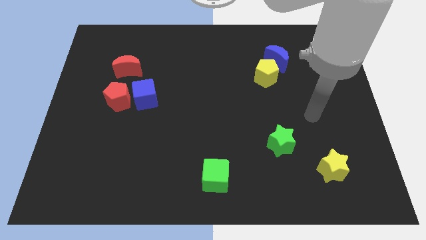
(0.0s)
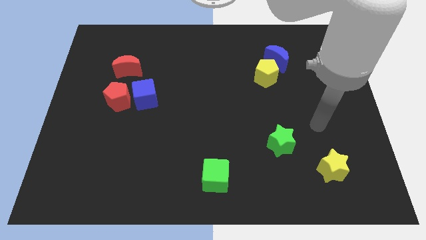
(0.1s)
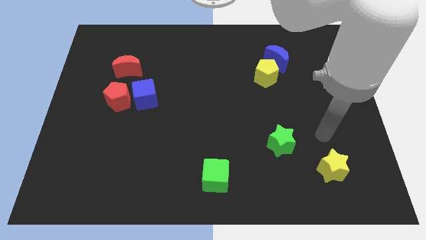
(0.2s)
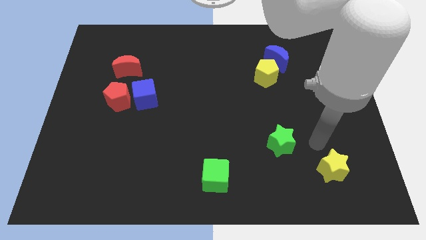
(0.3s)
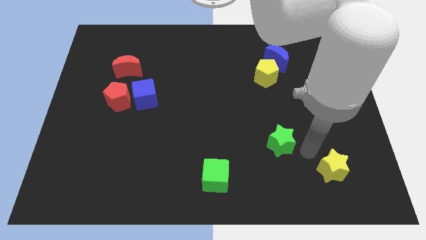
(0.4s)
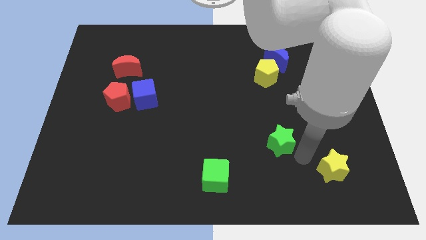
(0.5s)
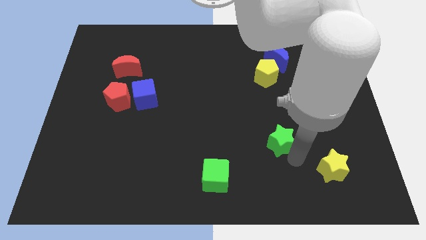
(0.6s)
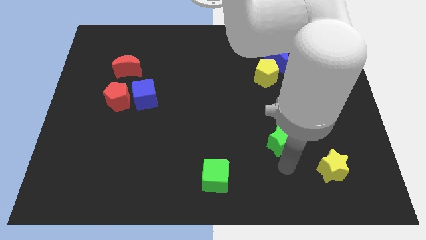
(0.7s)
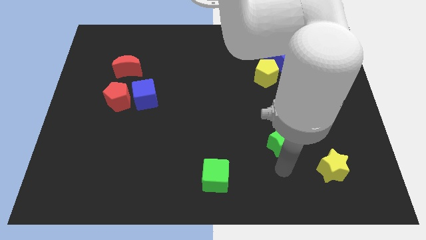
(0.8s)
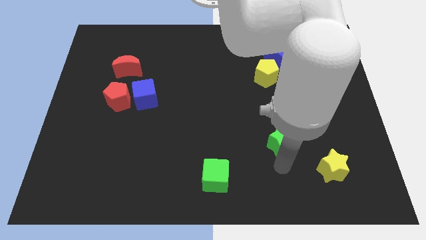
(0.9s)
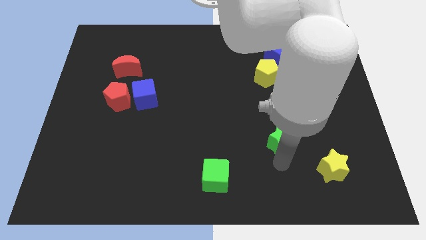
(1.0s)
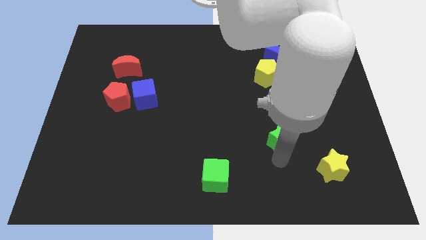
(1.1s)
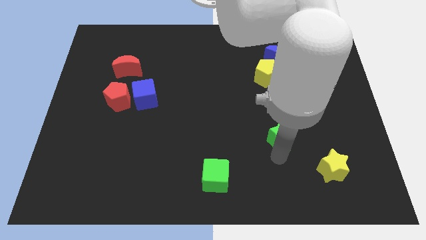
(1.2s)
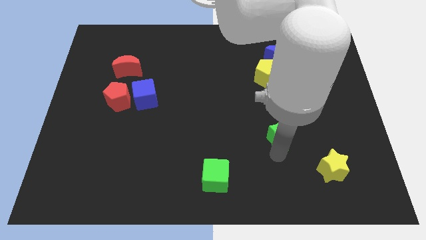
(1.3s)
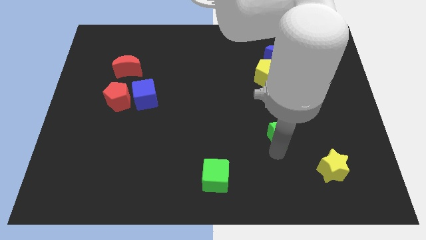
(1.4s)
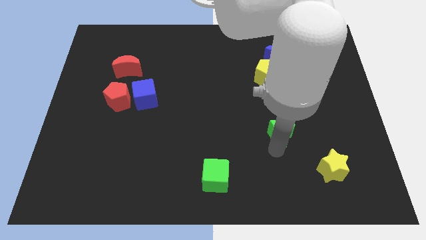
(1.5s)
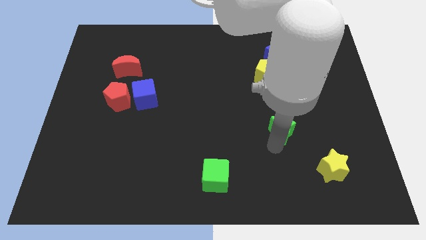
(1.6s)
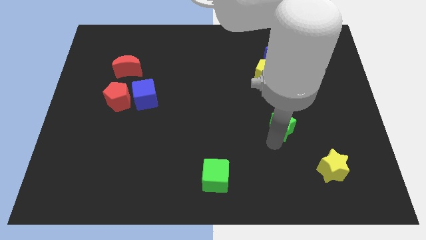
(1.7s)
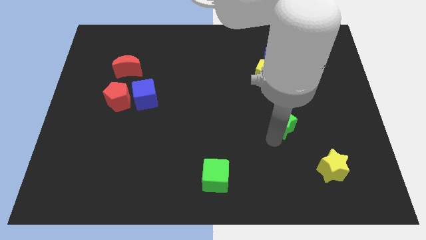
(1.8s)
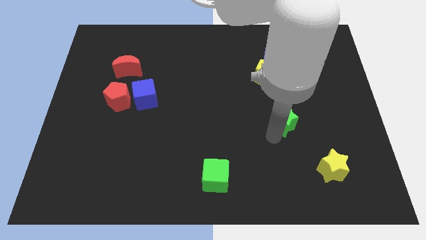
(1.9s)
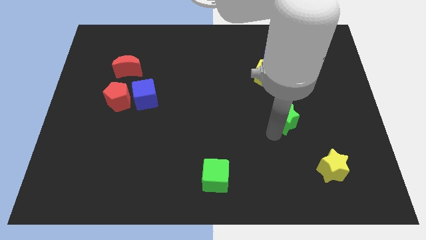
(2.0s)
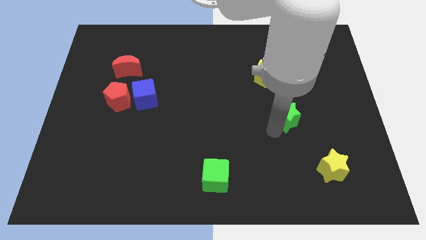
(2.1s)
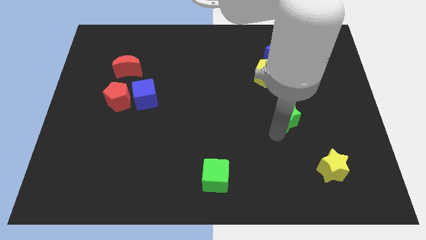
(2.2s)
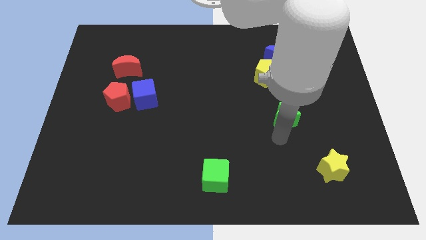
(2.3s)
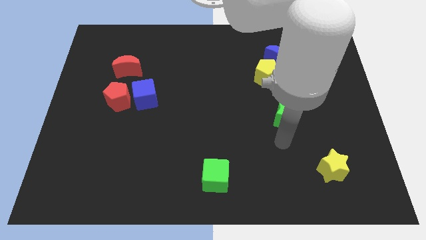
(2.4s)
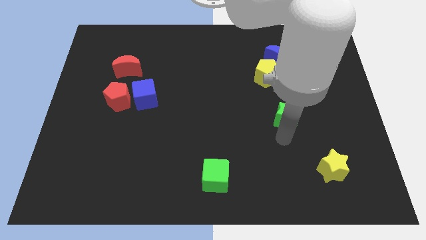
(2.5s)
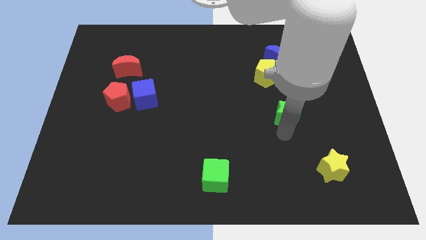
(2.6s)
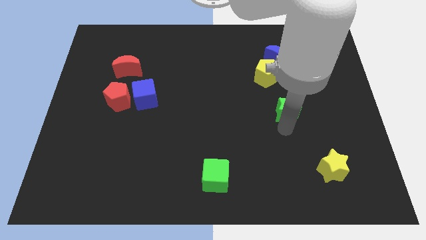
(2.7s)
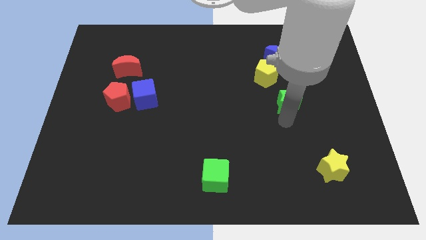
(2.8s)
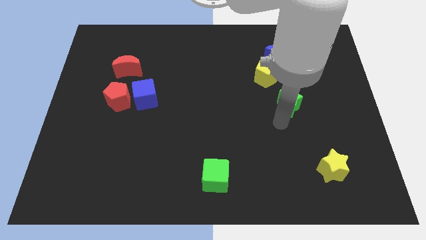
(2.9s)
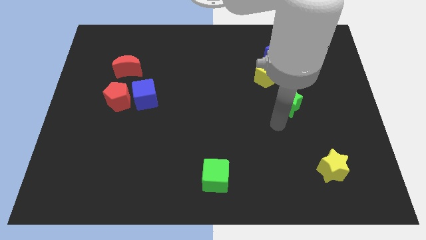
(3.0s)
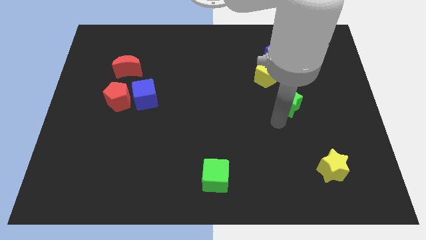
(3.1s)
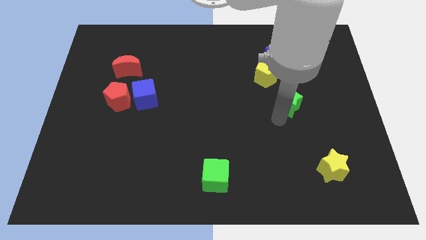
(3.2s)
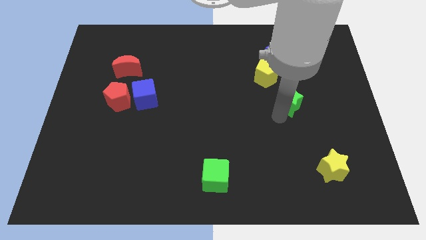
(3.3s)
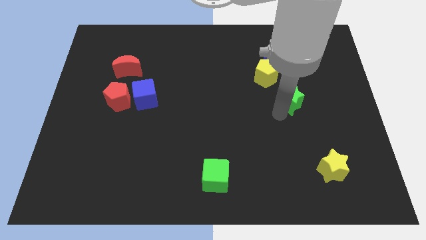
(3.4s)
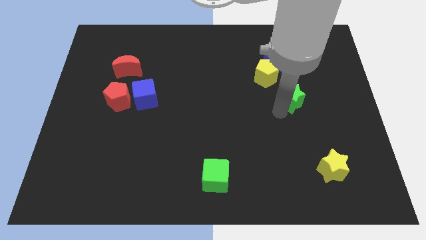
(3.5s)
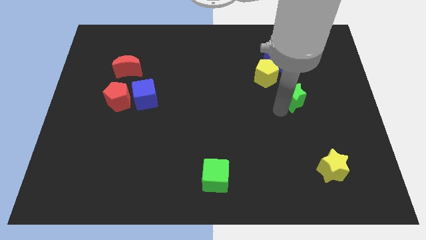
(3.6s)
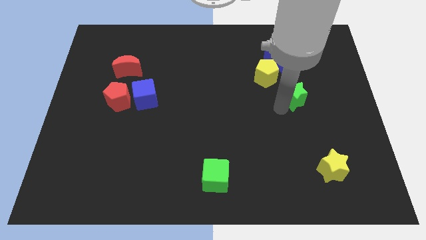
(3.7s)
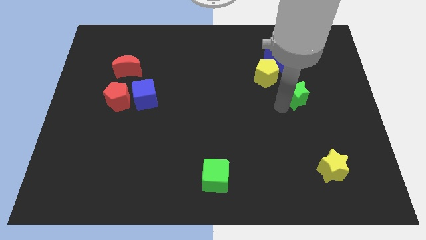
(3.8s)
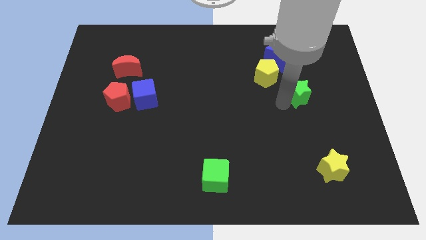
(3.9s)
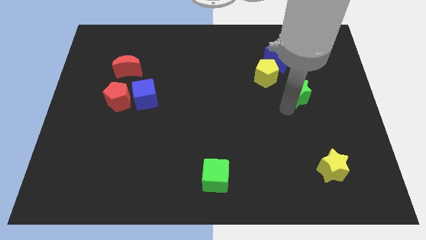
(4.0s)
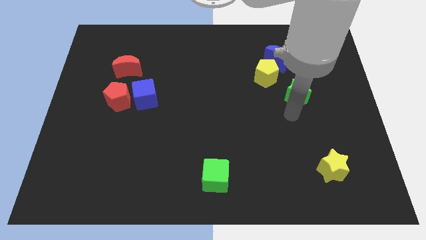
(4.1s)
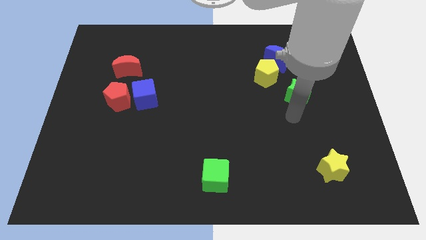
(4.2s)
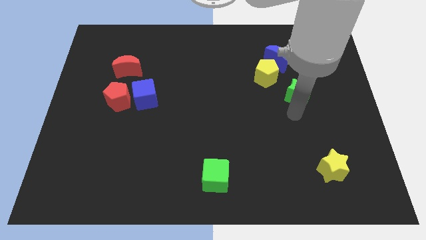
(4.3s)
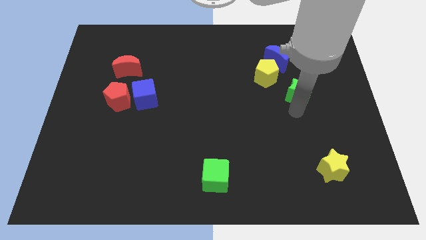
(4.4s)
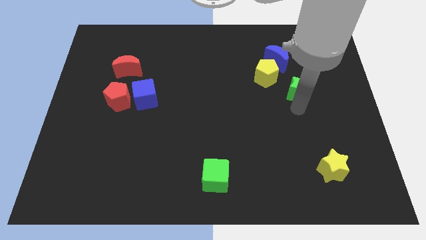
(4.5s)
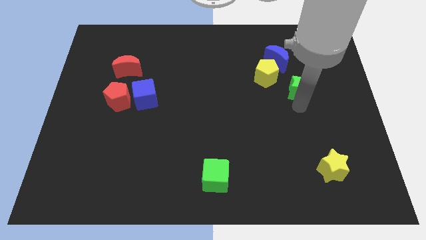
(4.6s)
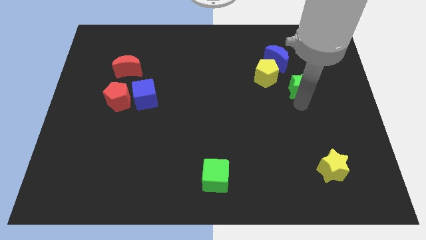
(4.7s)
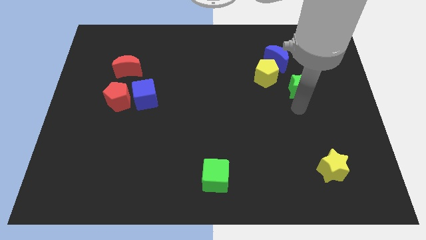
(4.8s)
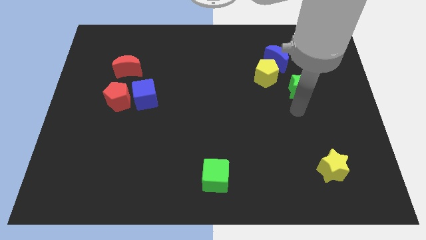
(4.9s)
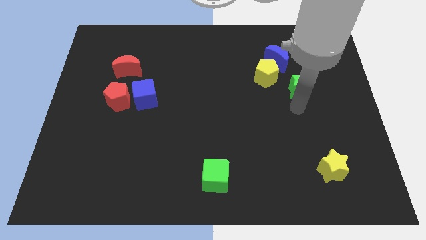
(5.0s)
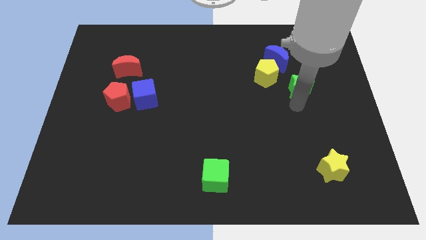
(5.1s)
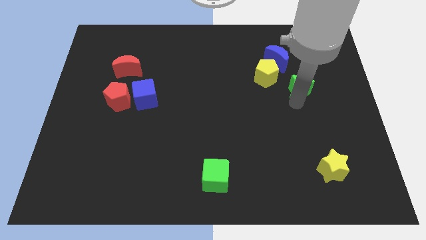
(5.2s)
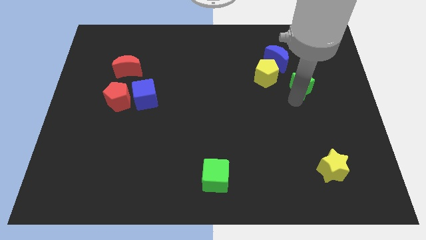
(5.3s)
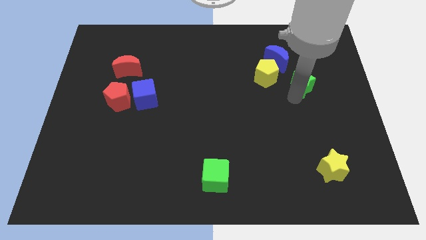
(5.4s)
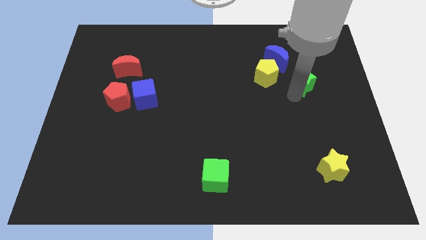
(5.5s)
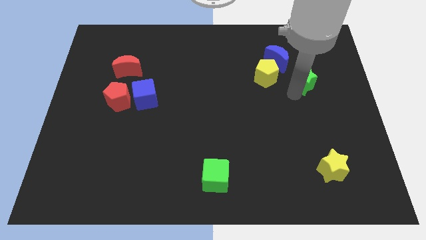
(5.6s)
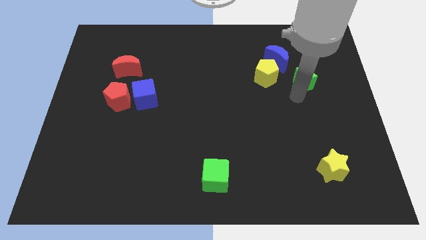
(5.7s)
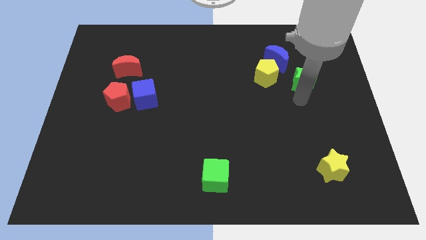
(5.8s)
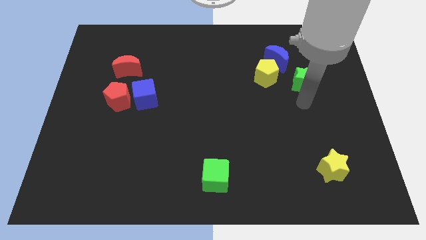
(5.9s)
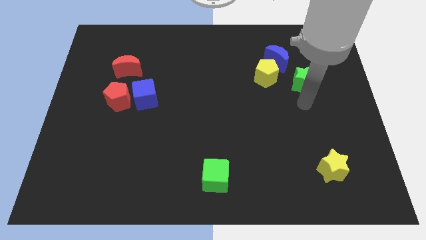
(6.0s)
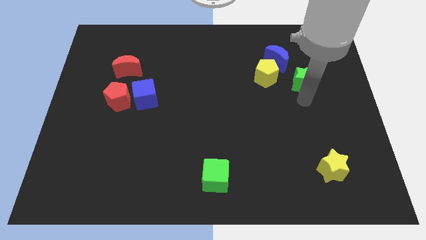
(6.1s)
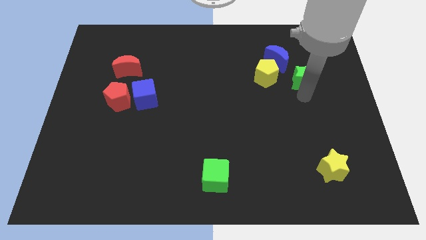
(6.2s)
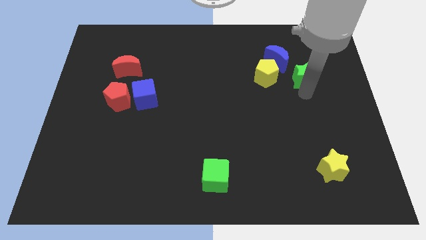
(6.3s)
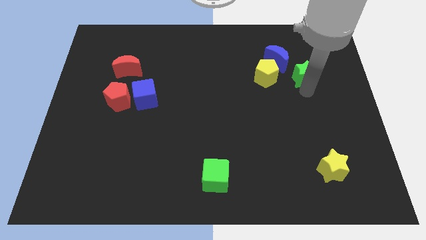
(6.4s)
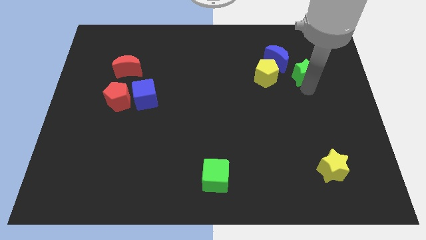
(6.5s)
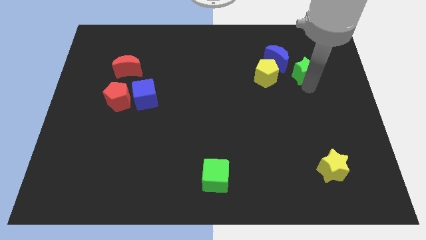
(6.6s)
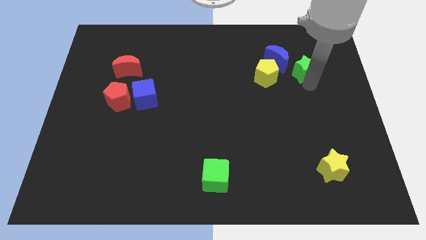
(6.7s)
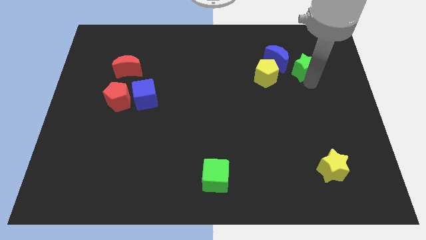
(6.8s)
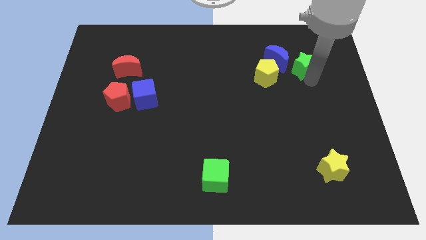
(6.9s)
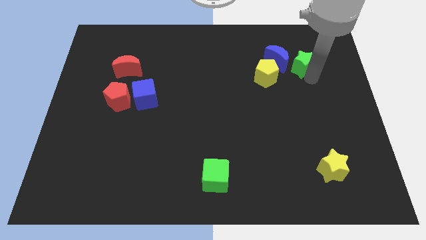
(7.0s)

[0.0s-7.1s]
put the green star diagonally up and to the right of the yellow pentagon
